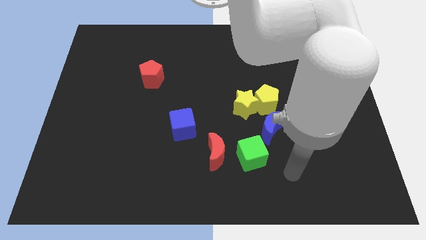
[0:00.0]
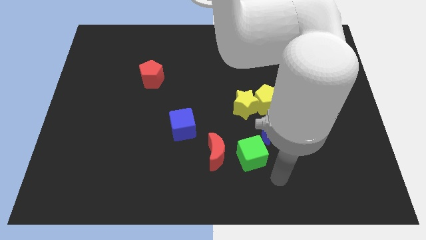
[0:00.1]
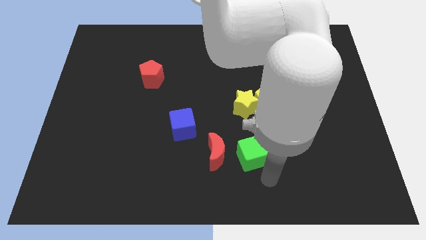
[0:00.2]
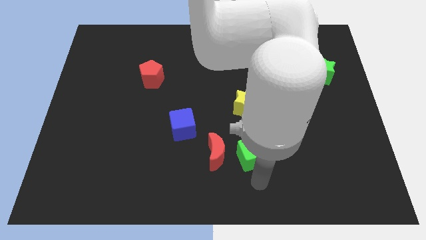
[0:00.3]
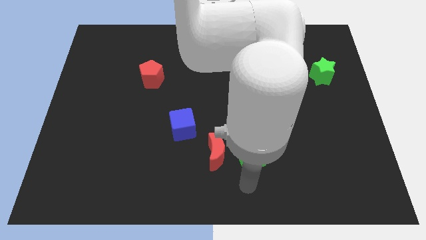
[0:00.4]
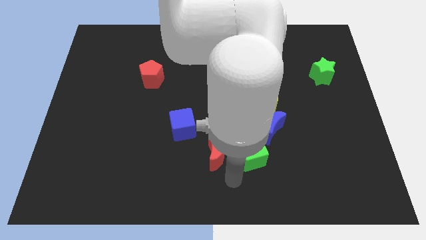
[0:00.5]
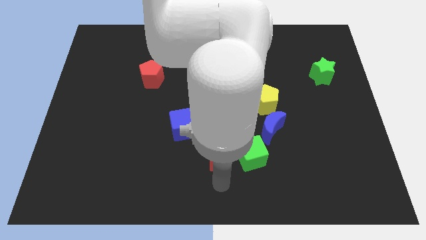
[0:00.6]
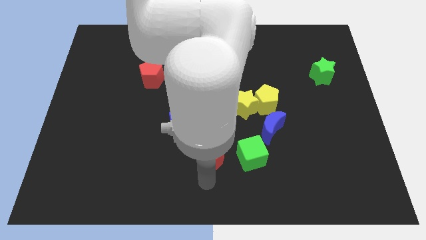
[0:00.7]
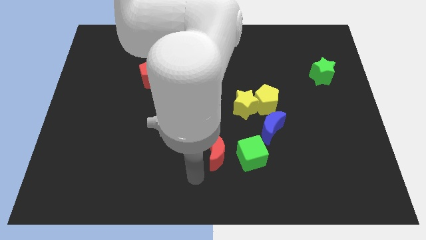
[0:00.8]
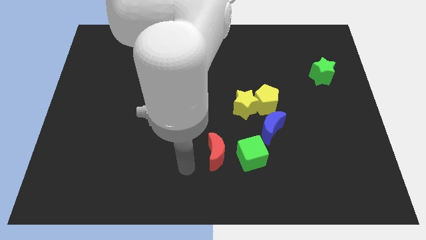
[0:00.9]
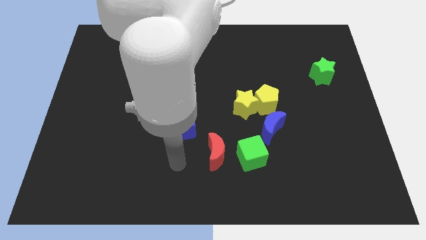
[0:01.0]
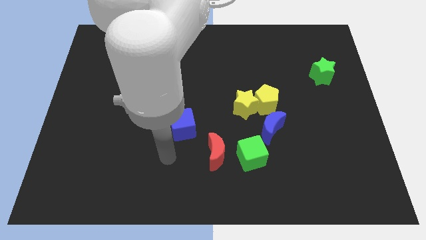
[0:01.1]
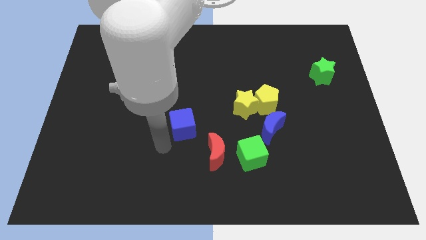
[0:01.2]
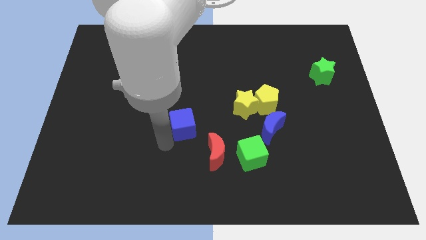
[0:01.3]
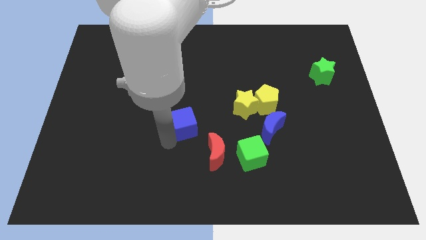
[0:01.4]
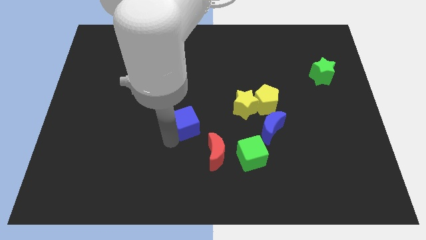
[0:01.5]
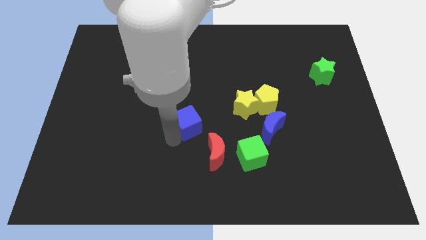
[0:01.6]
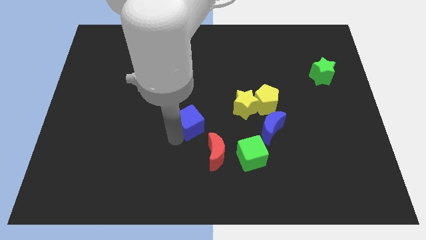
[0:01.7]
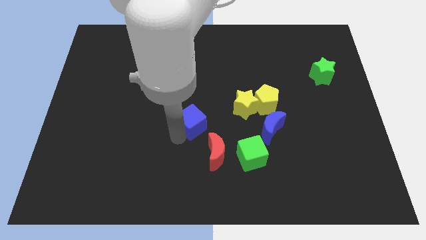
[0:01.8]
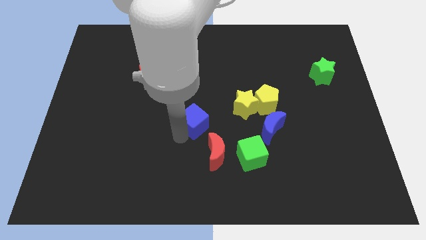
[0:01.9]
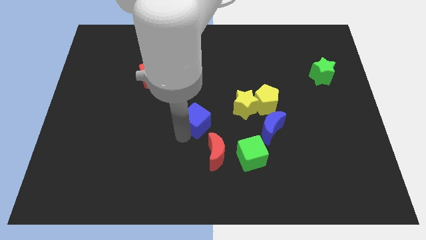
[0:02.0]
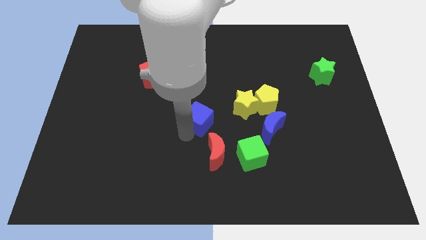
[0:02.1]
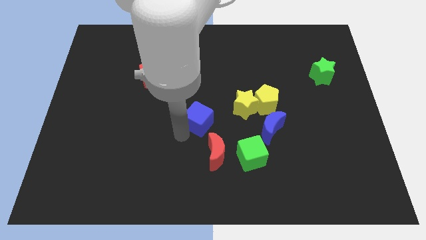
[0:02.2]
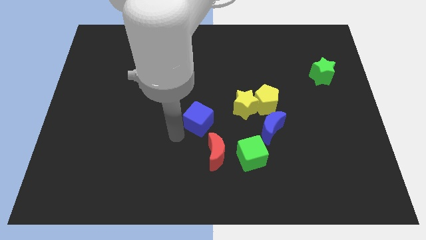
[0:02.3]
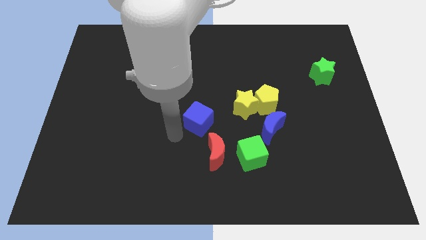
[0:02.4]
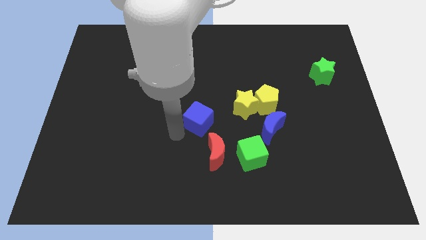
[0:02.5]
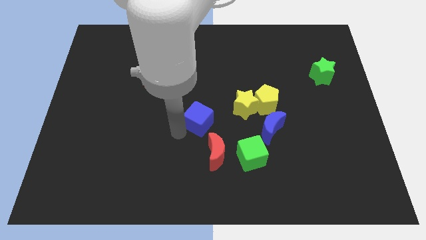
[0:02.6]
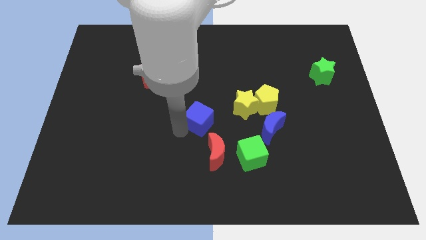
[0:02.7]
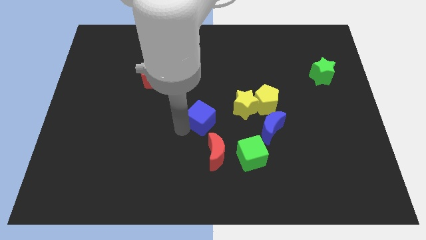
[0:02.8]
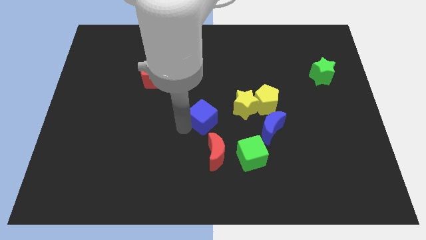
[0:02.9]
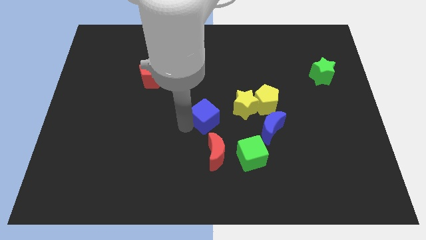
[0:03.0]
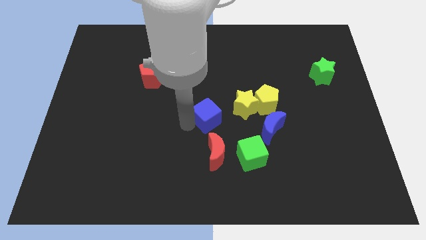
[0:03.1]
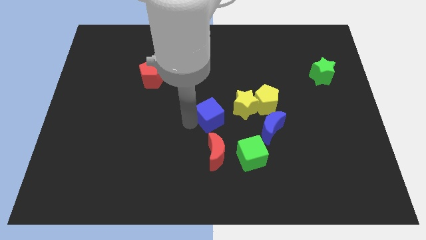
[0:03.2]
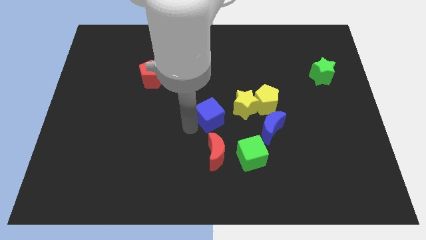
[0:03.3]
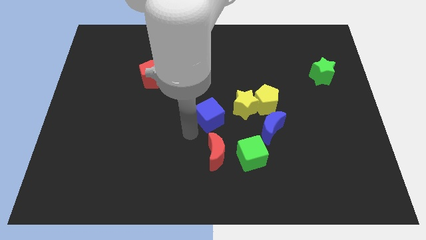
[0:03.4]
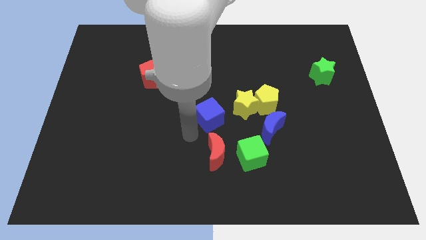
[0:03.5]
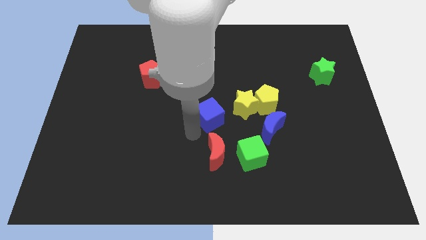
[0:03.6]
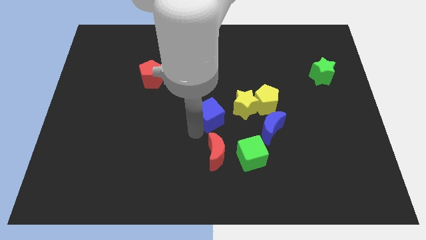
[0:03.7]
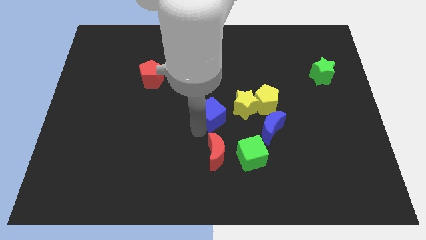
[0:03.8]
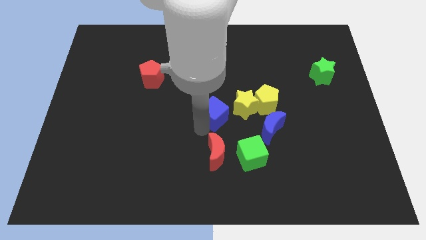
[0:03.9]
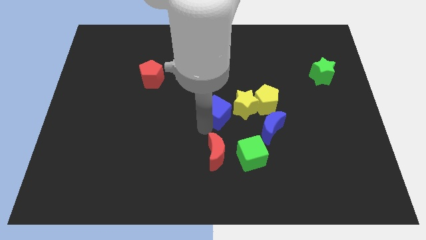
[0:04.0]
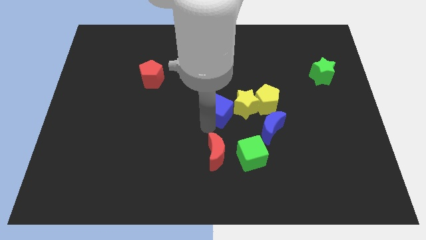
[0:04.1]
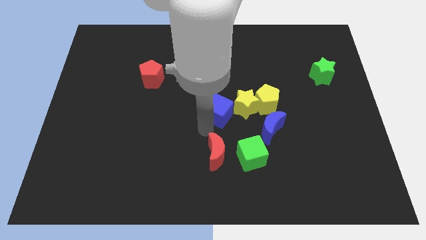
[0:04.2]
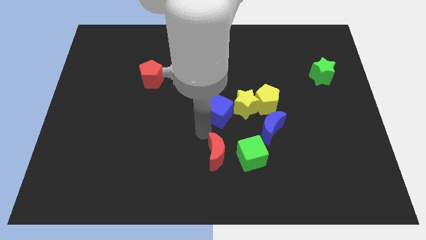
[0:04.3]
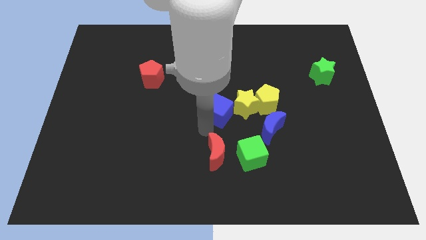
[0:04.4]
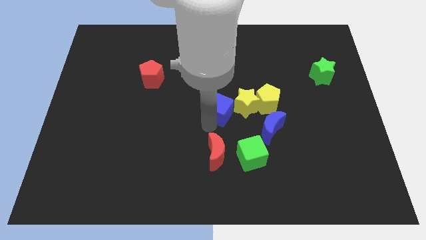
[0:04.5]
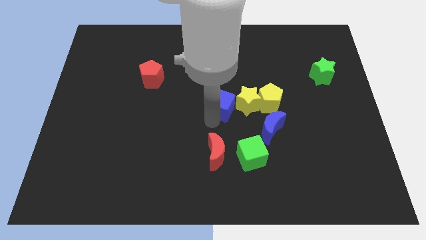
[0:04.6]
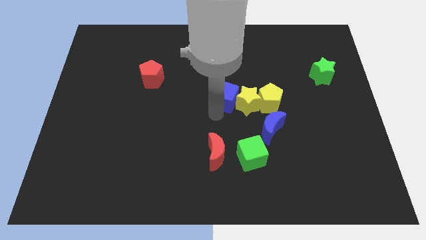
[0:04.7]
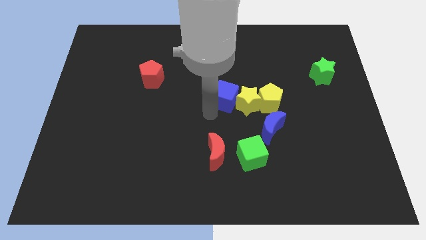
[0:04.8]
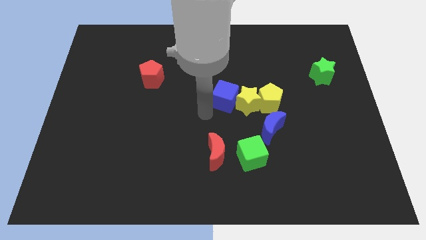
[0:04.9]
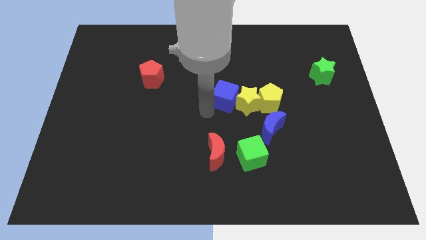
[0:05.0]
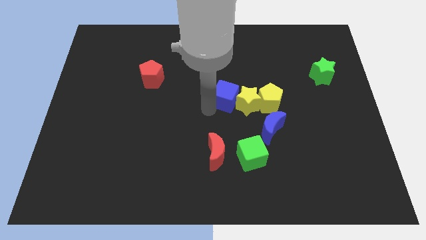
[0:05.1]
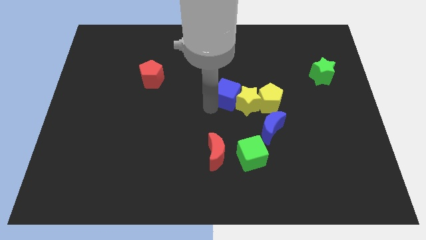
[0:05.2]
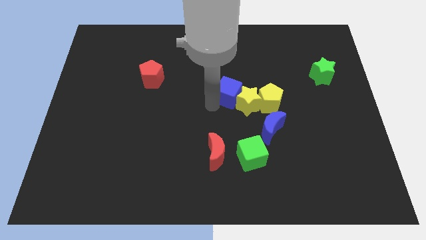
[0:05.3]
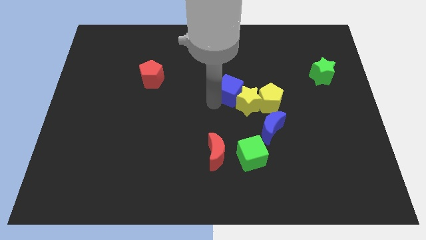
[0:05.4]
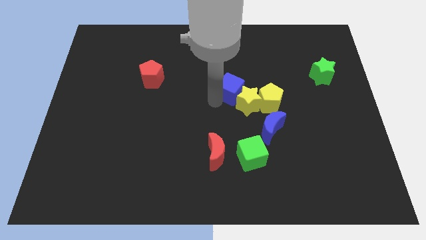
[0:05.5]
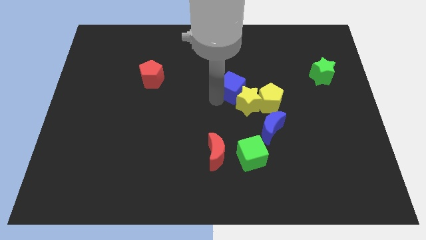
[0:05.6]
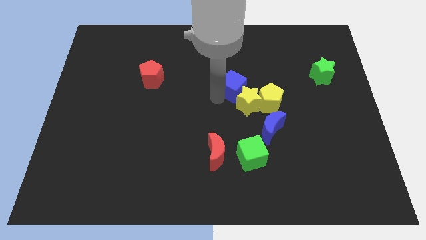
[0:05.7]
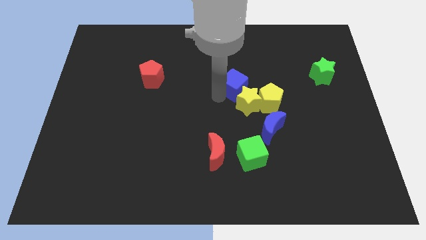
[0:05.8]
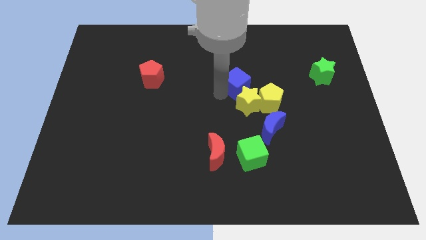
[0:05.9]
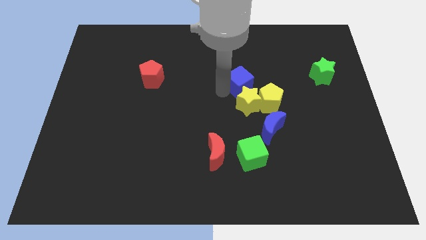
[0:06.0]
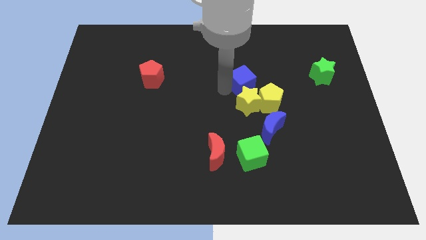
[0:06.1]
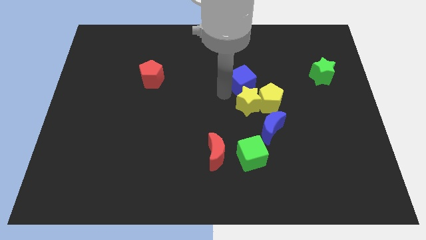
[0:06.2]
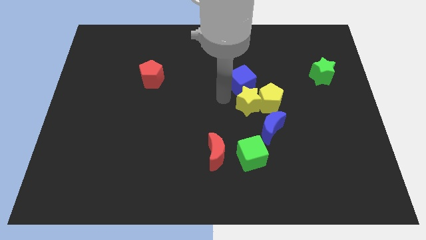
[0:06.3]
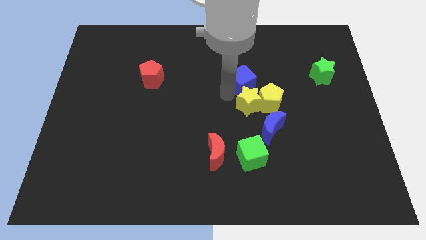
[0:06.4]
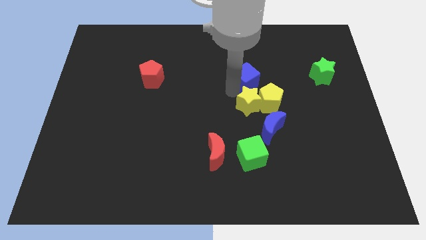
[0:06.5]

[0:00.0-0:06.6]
slide the blue cube upwards and right

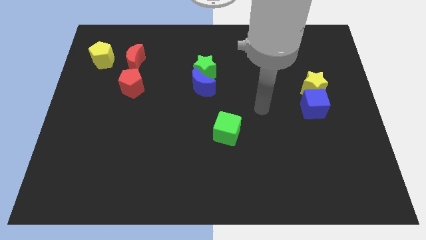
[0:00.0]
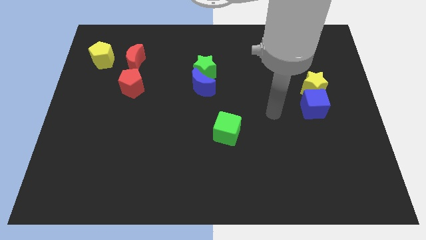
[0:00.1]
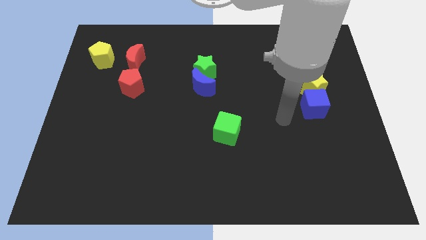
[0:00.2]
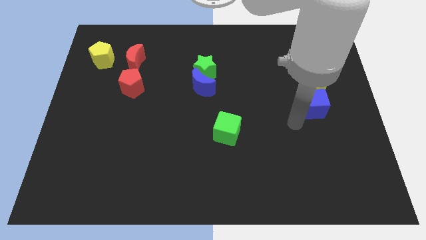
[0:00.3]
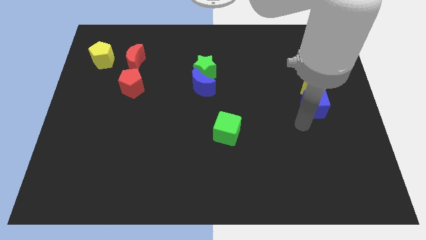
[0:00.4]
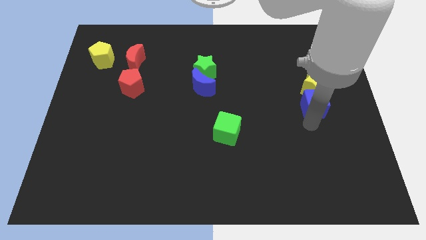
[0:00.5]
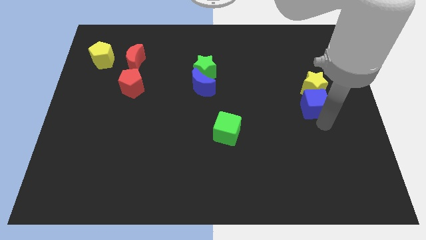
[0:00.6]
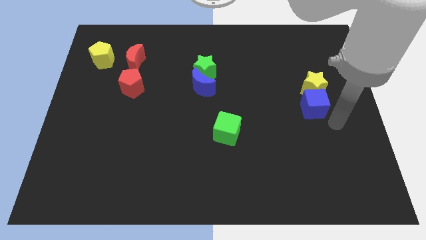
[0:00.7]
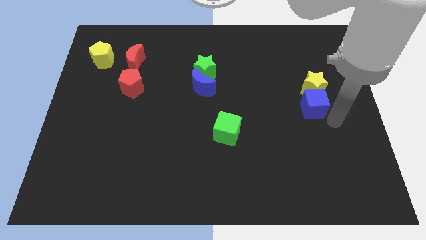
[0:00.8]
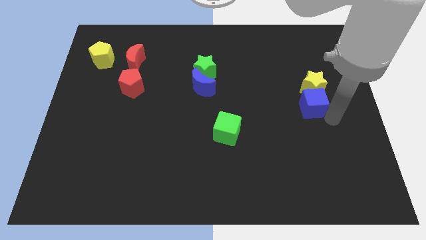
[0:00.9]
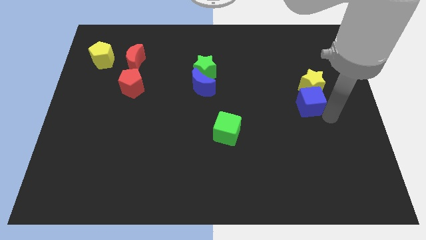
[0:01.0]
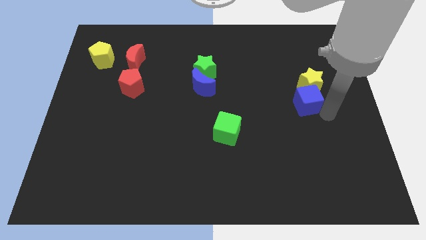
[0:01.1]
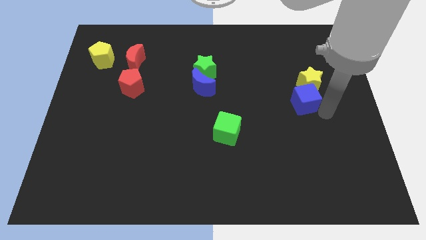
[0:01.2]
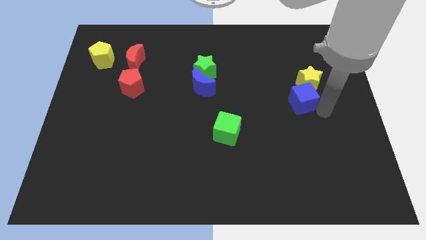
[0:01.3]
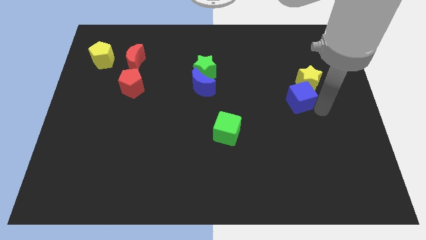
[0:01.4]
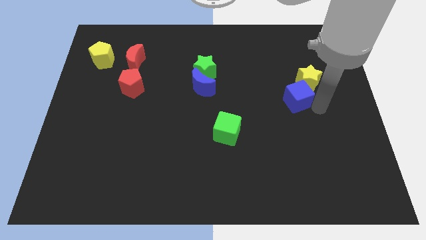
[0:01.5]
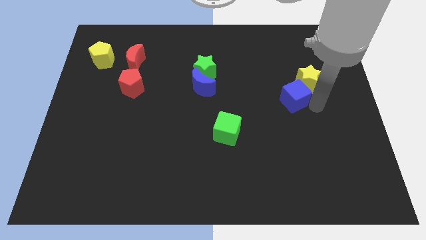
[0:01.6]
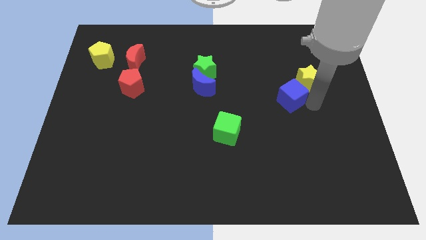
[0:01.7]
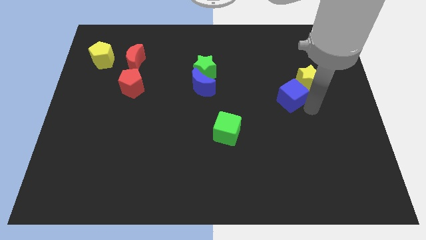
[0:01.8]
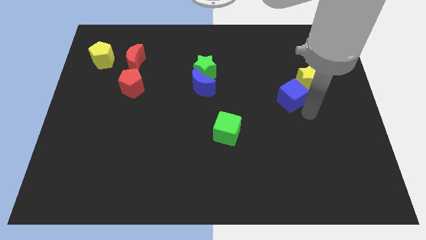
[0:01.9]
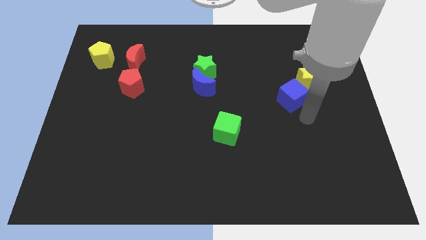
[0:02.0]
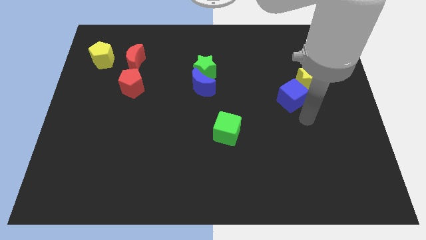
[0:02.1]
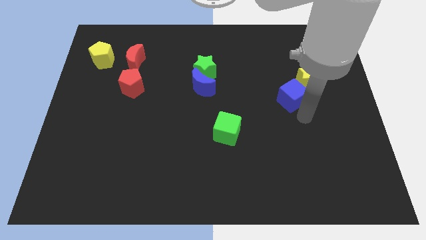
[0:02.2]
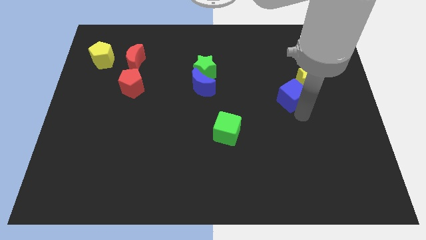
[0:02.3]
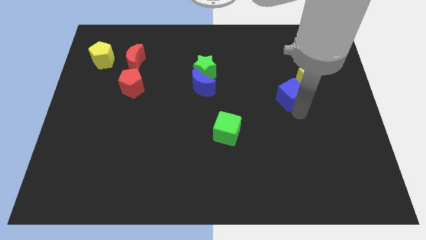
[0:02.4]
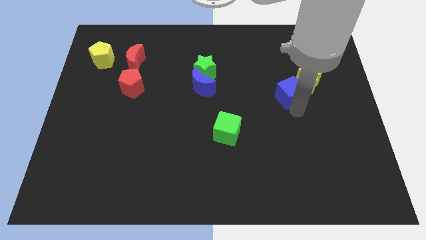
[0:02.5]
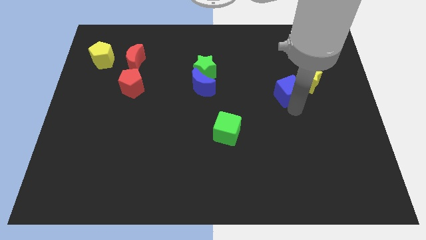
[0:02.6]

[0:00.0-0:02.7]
move the blue cube diagonally upwards and to the left a little bit
